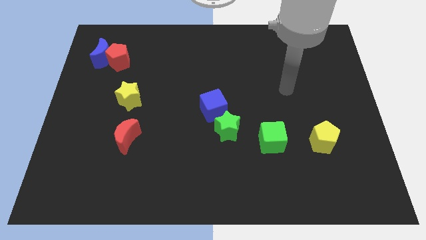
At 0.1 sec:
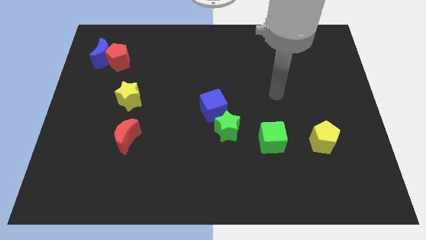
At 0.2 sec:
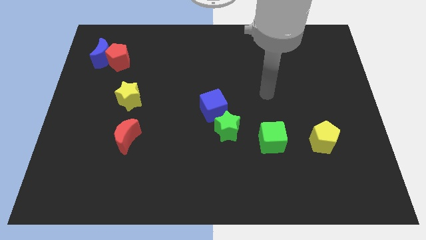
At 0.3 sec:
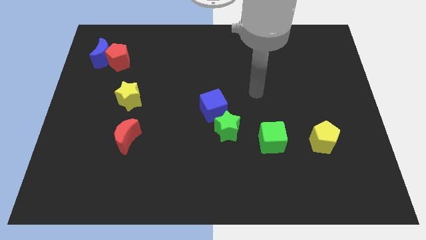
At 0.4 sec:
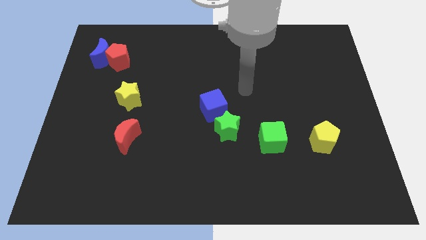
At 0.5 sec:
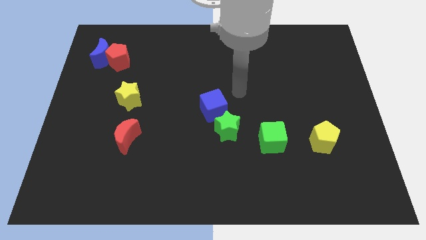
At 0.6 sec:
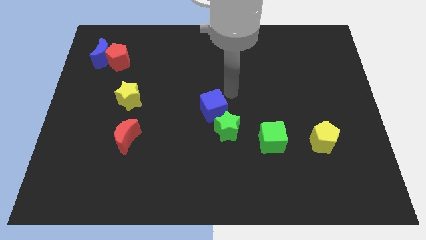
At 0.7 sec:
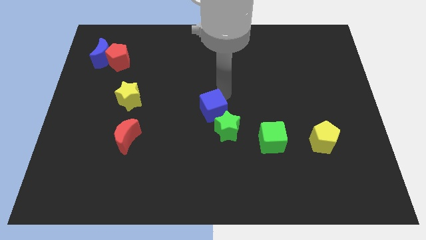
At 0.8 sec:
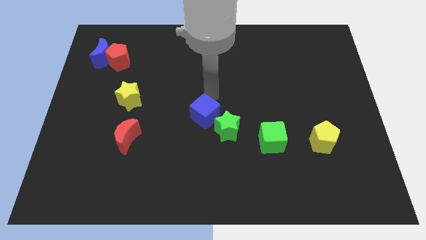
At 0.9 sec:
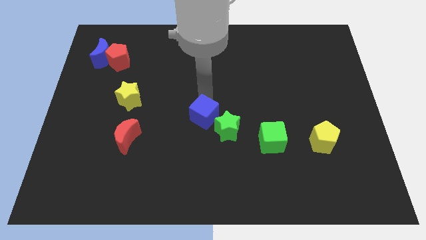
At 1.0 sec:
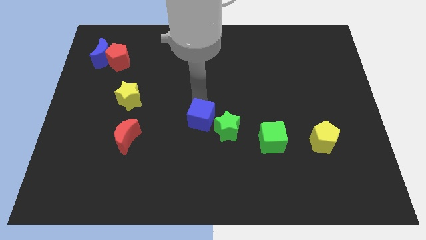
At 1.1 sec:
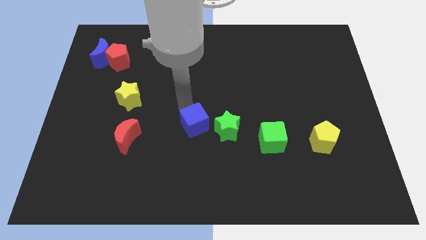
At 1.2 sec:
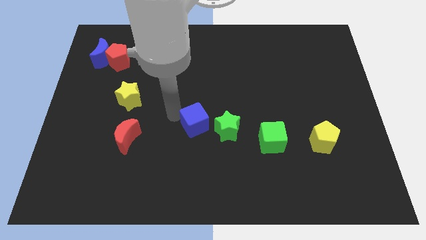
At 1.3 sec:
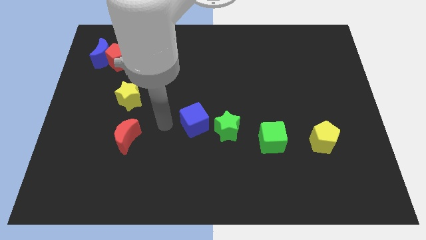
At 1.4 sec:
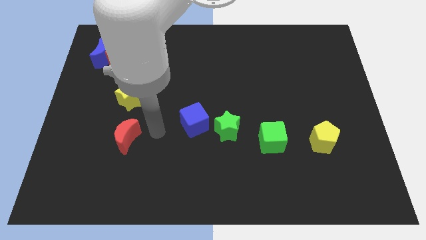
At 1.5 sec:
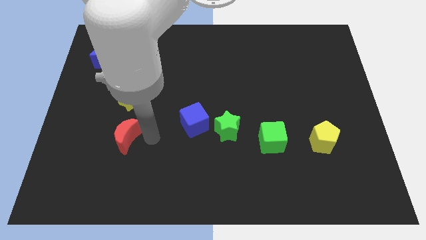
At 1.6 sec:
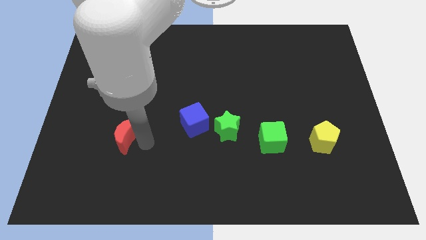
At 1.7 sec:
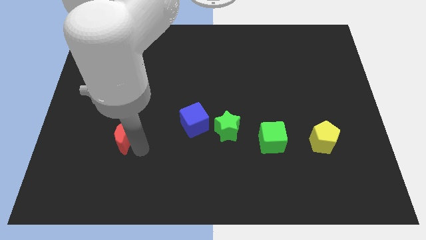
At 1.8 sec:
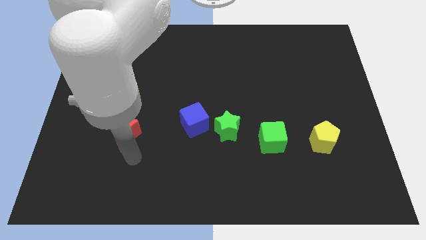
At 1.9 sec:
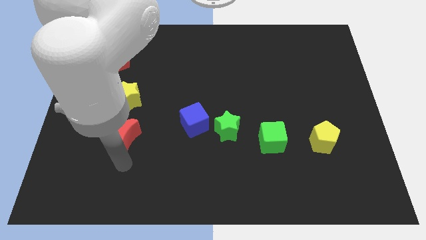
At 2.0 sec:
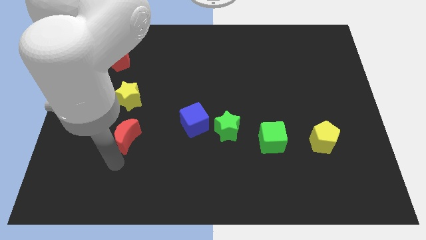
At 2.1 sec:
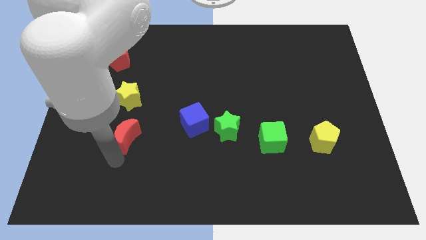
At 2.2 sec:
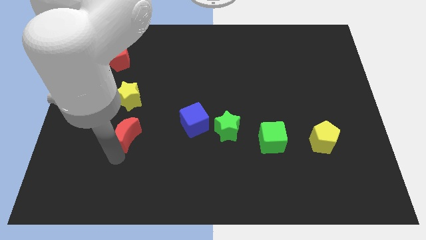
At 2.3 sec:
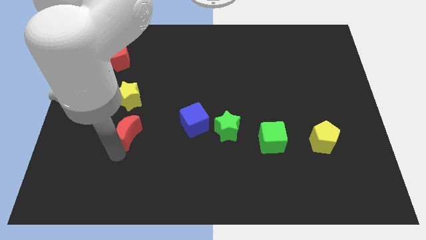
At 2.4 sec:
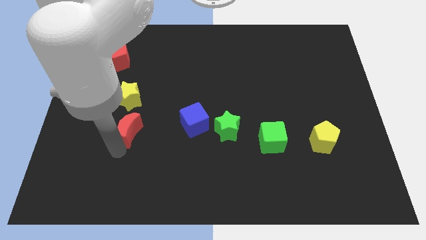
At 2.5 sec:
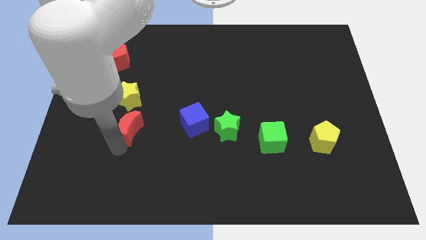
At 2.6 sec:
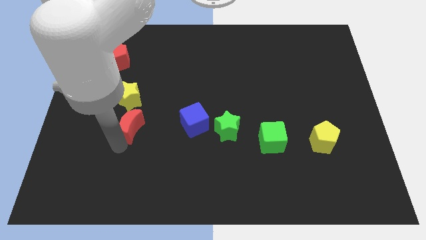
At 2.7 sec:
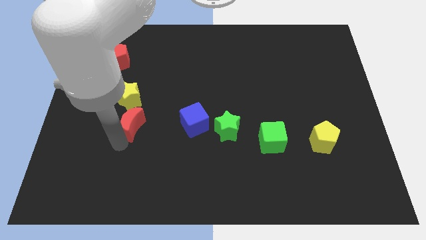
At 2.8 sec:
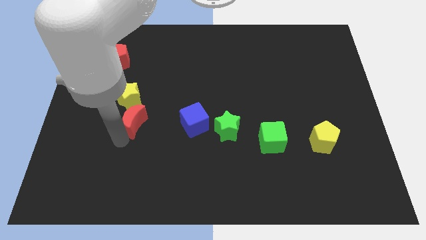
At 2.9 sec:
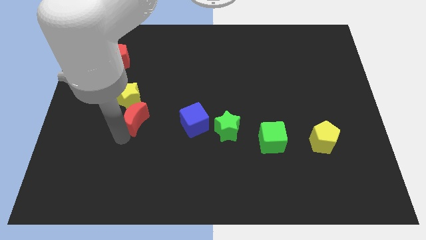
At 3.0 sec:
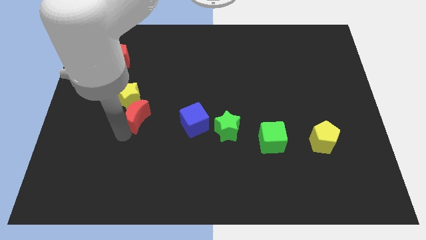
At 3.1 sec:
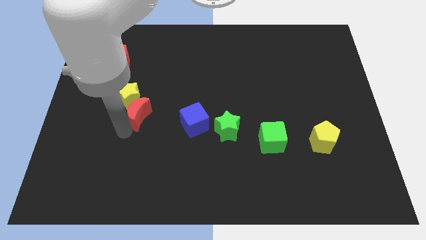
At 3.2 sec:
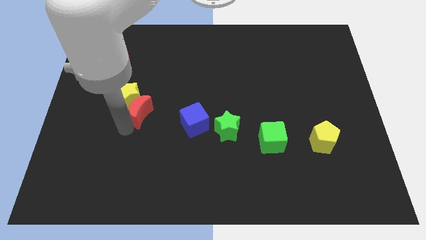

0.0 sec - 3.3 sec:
slightly slide the red moon upwards

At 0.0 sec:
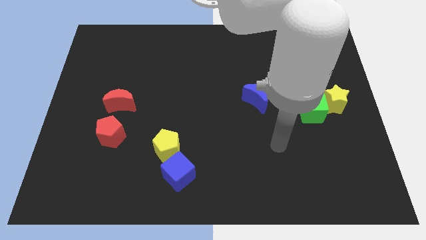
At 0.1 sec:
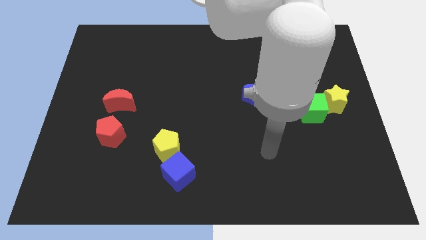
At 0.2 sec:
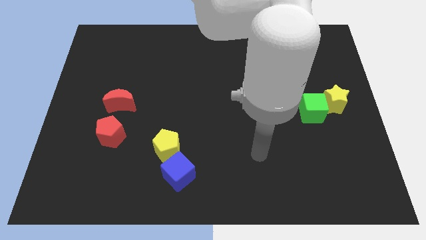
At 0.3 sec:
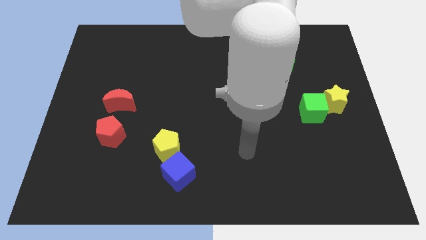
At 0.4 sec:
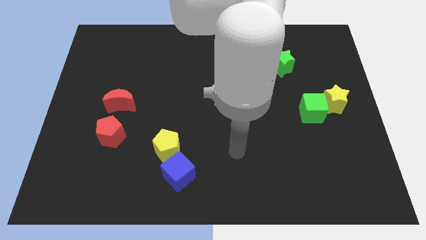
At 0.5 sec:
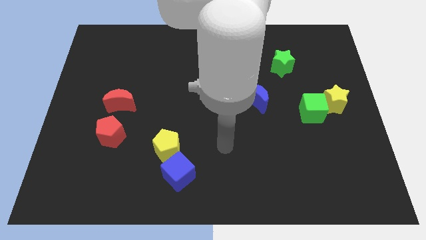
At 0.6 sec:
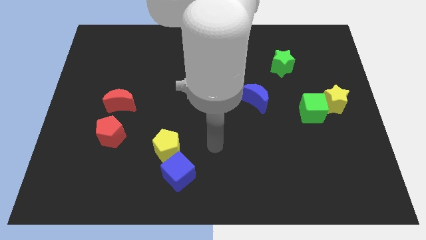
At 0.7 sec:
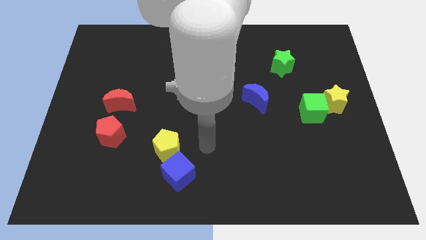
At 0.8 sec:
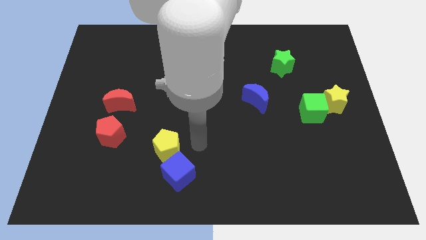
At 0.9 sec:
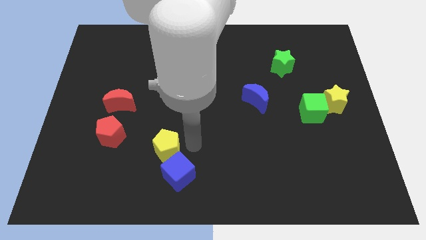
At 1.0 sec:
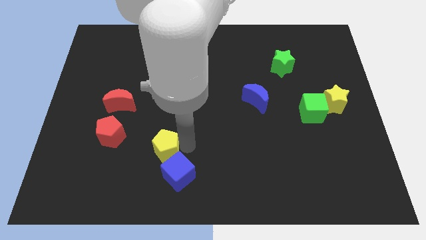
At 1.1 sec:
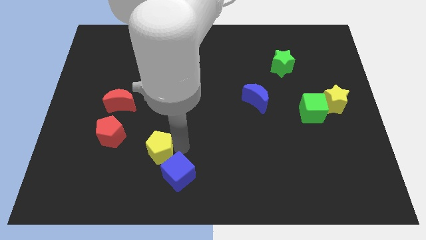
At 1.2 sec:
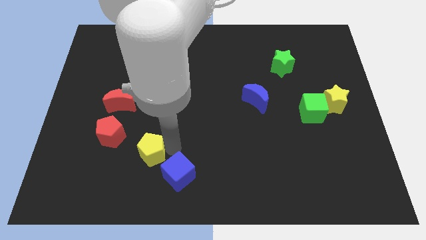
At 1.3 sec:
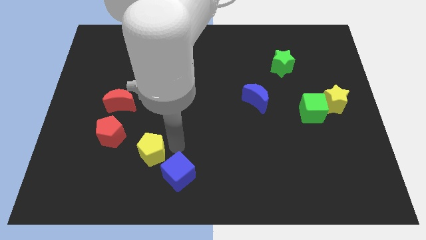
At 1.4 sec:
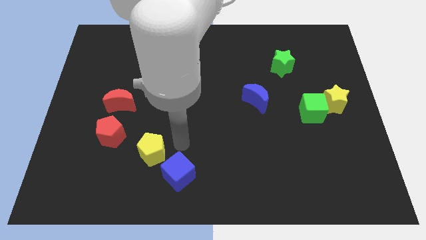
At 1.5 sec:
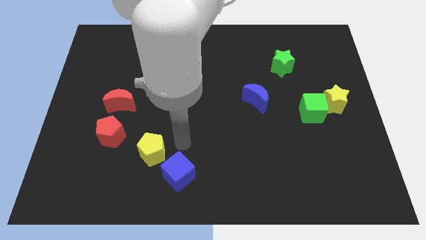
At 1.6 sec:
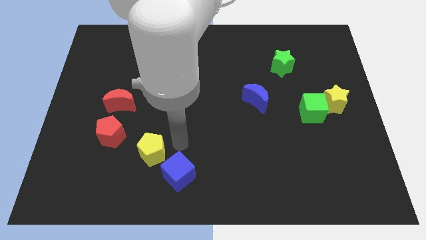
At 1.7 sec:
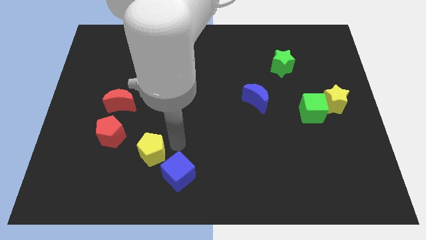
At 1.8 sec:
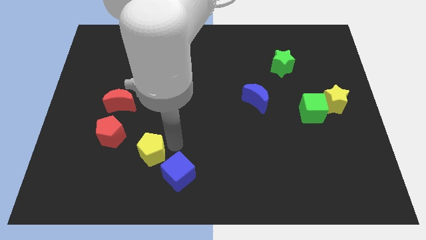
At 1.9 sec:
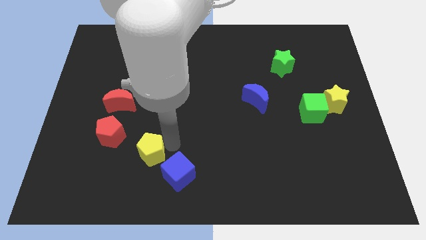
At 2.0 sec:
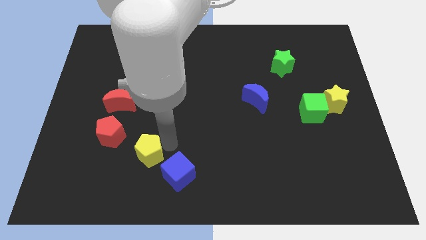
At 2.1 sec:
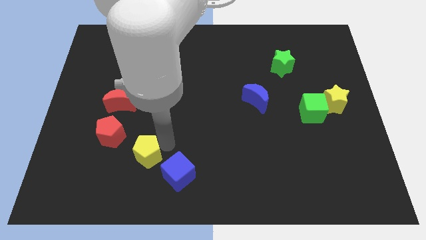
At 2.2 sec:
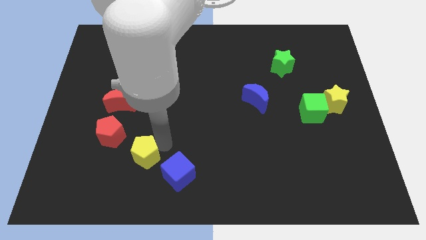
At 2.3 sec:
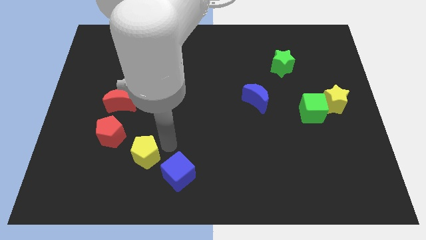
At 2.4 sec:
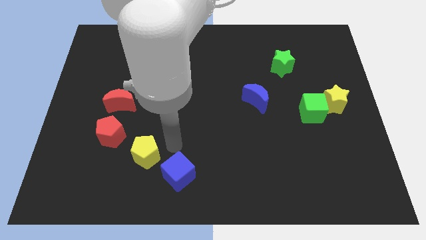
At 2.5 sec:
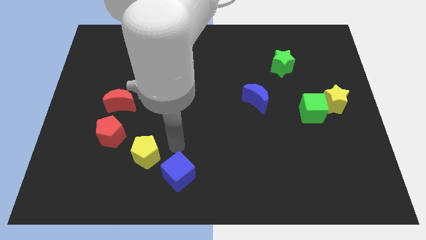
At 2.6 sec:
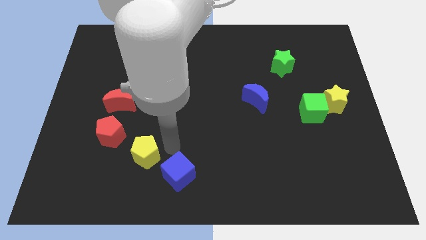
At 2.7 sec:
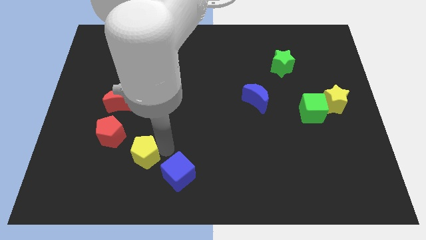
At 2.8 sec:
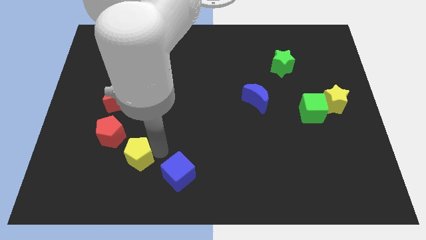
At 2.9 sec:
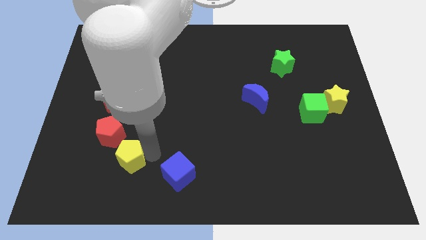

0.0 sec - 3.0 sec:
slide the yellow pentagon a bit to the left

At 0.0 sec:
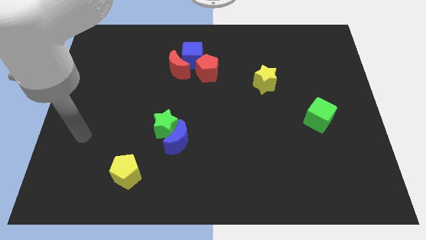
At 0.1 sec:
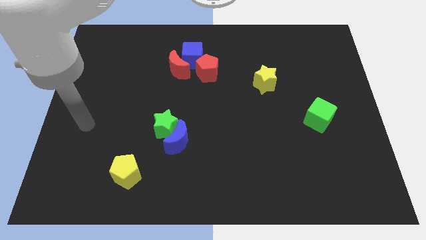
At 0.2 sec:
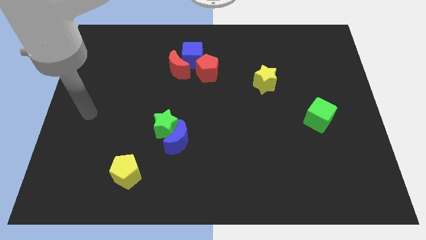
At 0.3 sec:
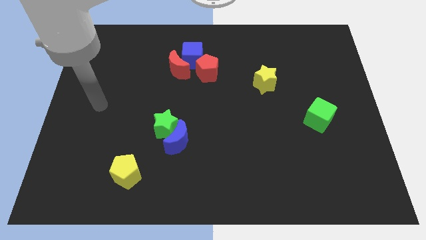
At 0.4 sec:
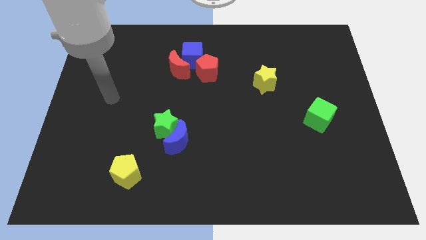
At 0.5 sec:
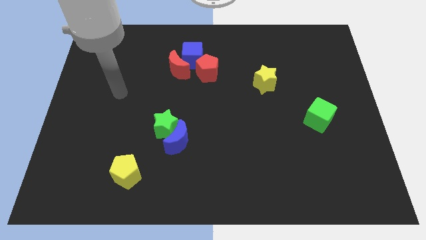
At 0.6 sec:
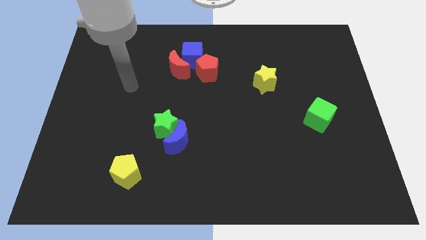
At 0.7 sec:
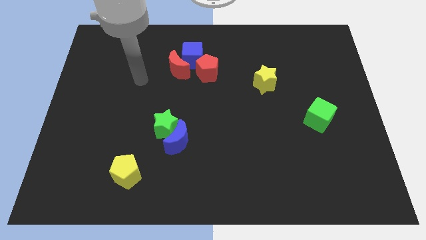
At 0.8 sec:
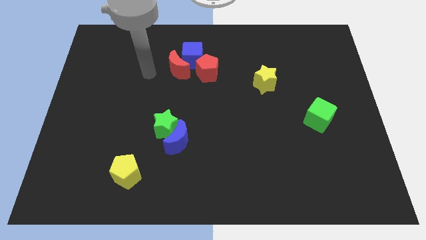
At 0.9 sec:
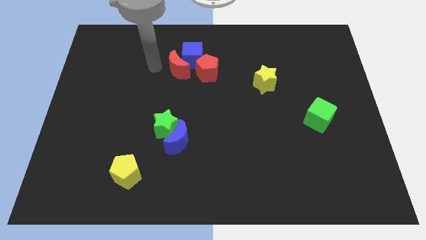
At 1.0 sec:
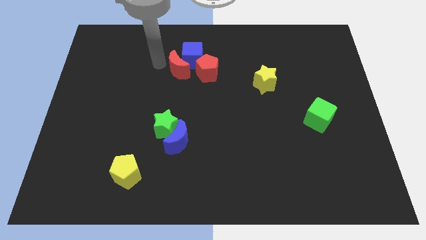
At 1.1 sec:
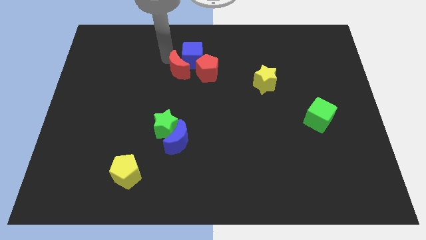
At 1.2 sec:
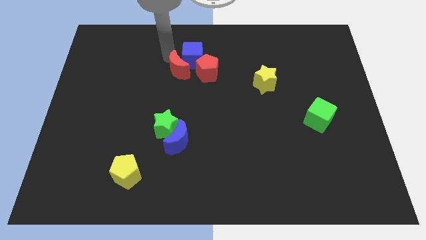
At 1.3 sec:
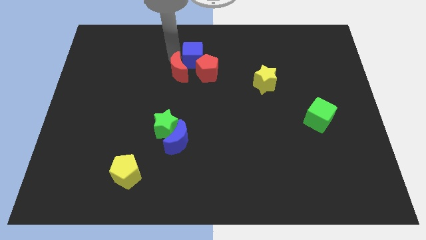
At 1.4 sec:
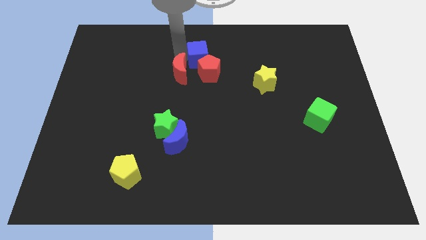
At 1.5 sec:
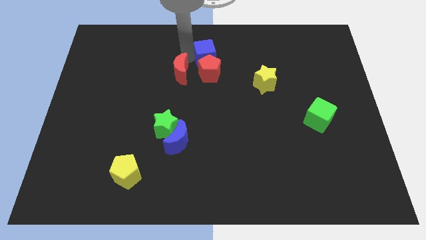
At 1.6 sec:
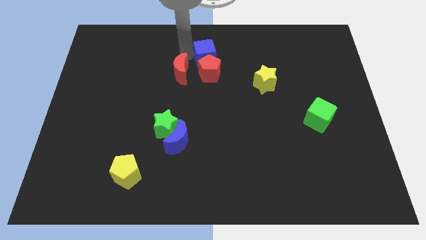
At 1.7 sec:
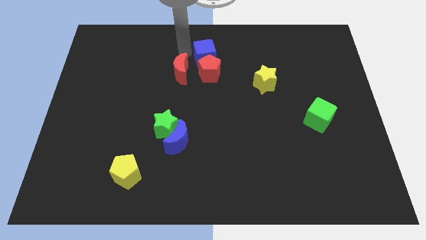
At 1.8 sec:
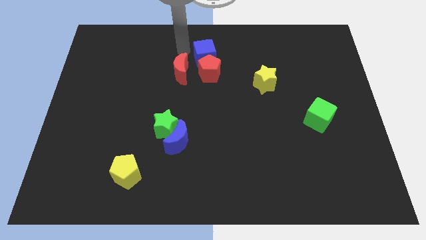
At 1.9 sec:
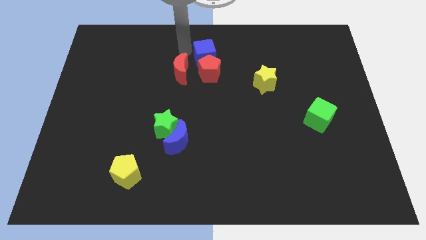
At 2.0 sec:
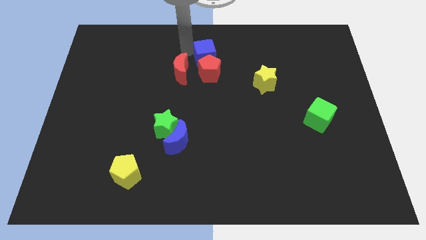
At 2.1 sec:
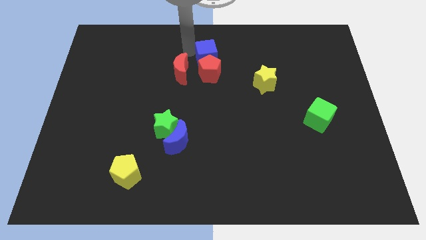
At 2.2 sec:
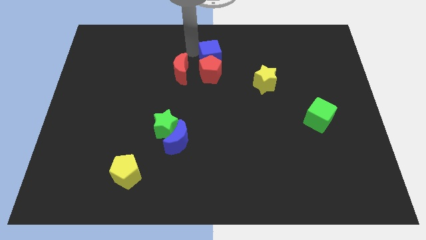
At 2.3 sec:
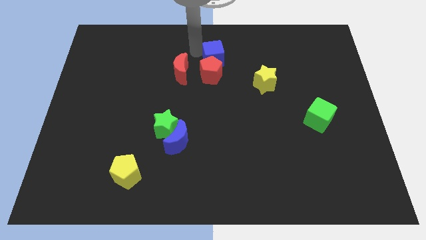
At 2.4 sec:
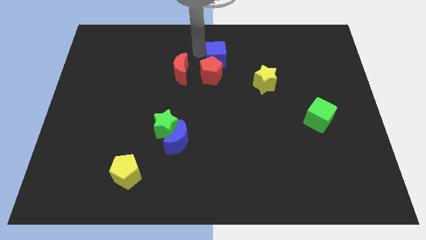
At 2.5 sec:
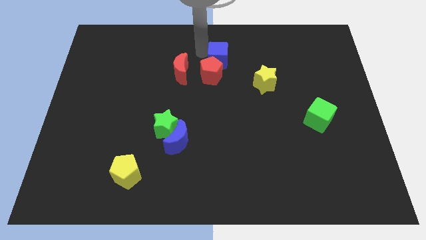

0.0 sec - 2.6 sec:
slightly push the blue cube to the right
